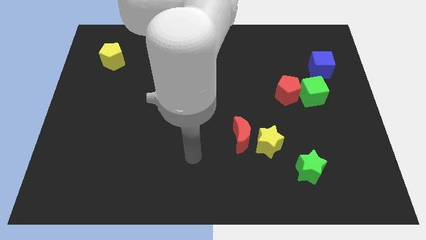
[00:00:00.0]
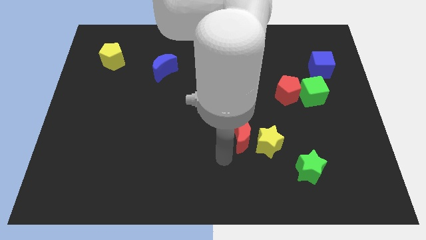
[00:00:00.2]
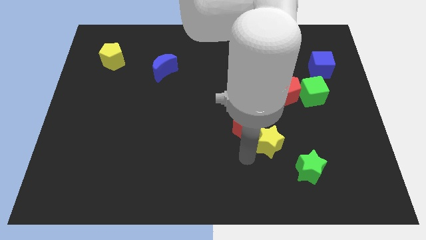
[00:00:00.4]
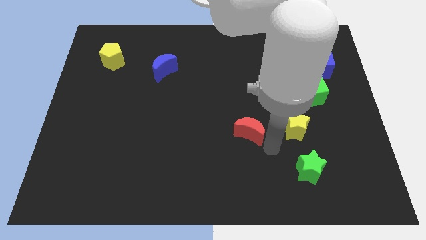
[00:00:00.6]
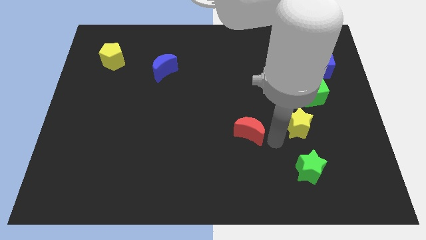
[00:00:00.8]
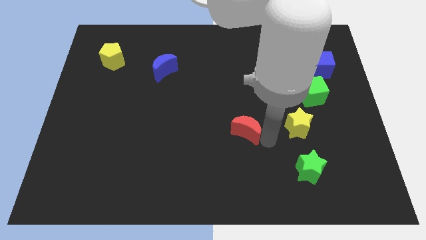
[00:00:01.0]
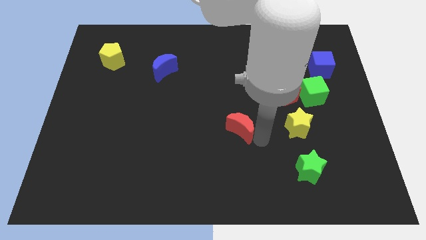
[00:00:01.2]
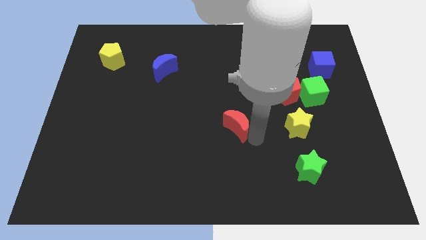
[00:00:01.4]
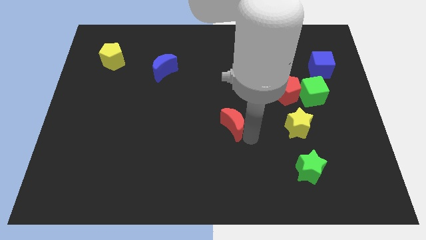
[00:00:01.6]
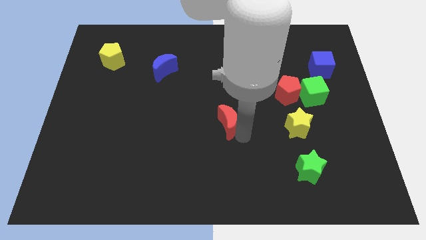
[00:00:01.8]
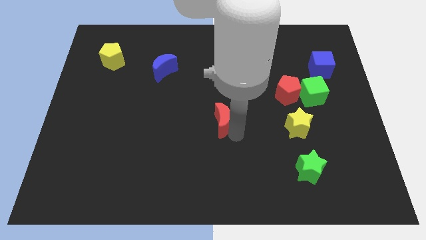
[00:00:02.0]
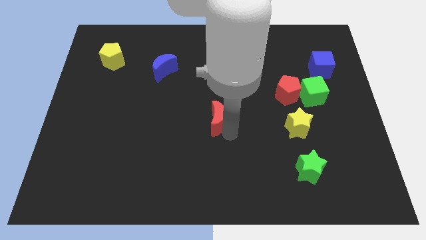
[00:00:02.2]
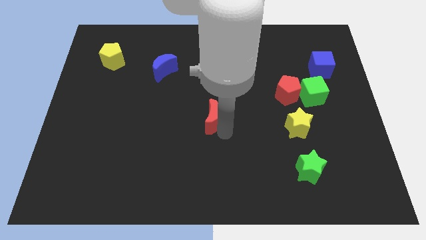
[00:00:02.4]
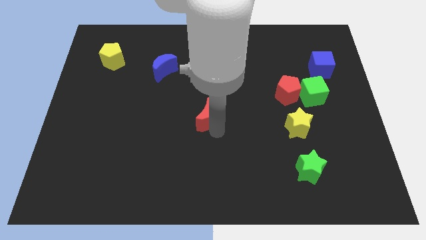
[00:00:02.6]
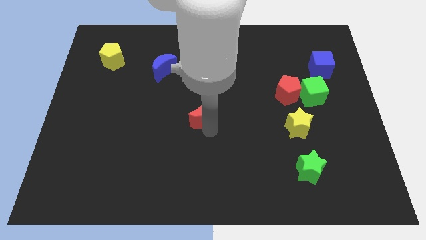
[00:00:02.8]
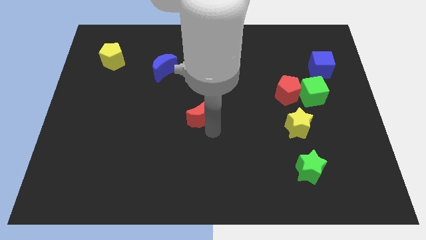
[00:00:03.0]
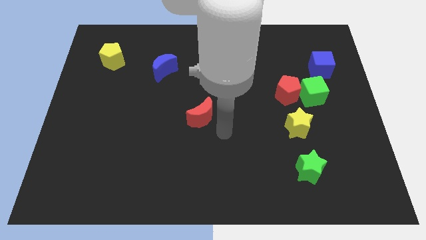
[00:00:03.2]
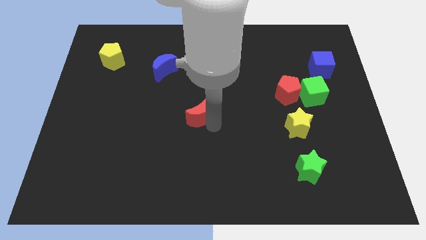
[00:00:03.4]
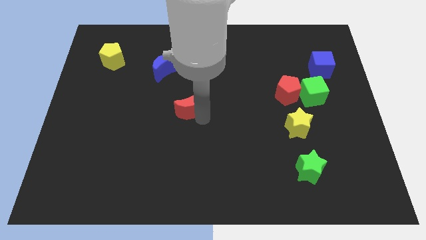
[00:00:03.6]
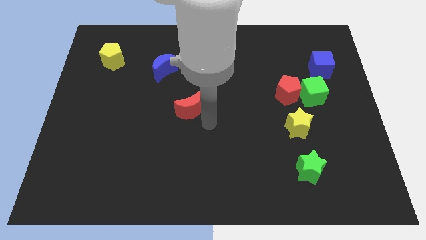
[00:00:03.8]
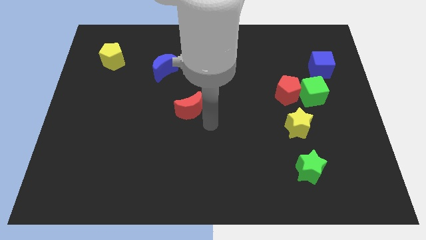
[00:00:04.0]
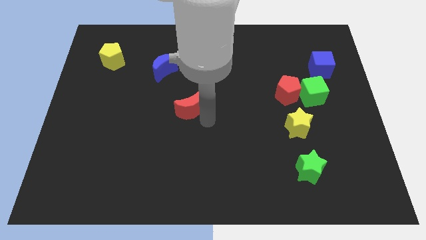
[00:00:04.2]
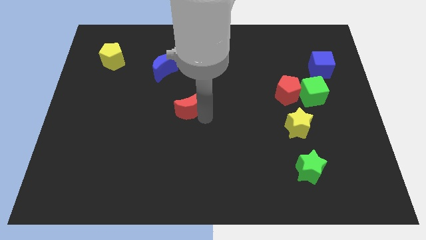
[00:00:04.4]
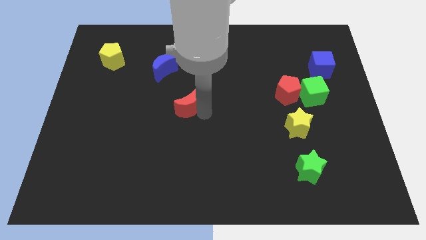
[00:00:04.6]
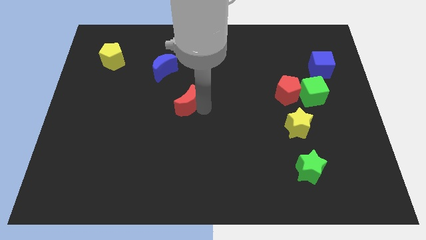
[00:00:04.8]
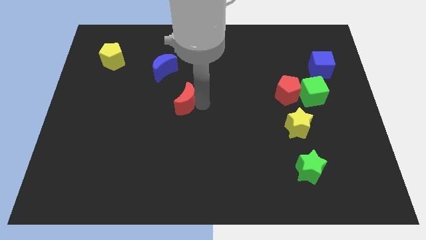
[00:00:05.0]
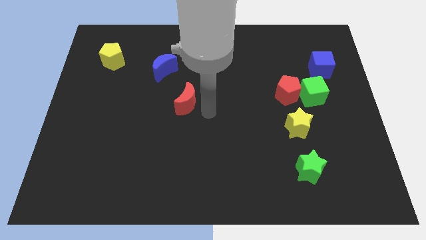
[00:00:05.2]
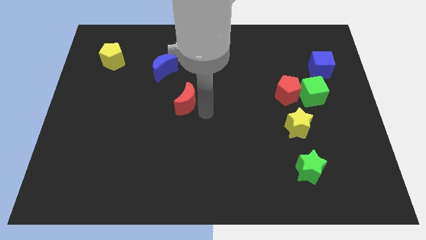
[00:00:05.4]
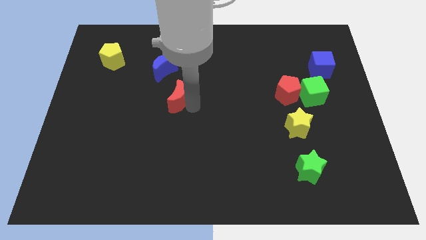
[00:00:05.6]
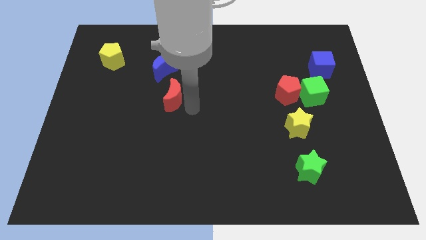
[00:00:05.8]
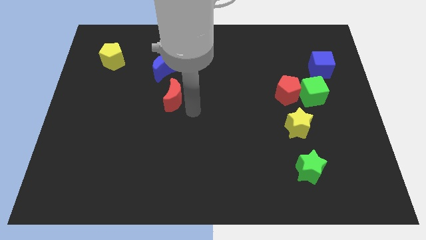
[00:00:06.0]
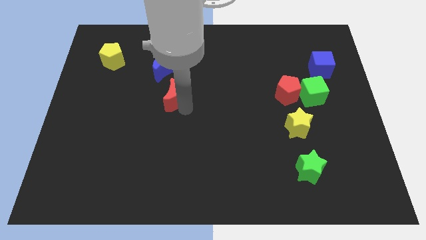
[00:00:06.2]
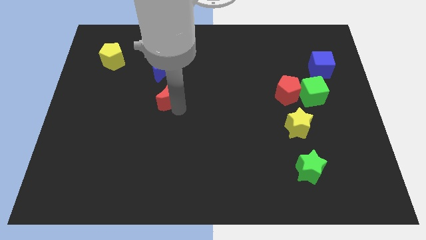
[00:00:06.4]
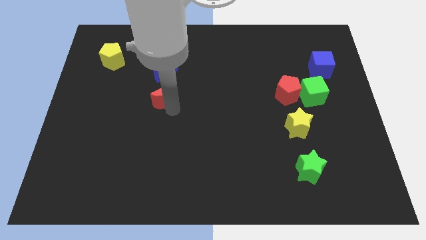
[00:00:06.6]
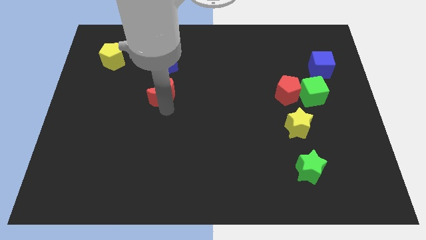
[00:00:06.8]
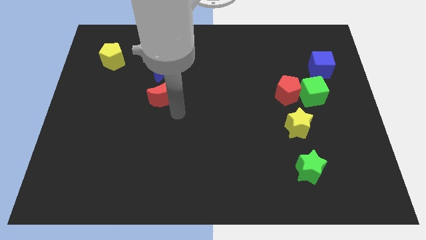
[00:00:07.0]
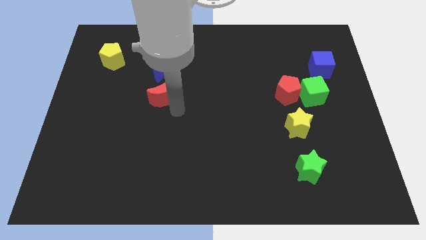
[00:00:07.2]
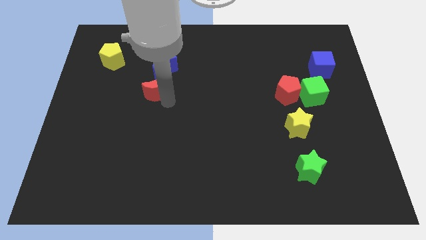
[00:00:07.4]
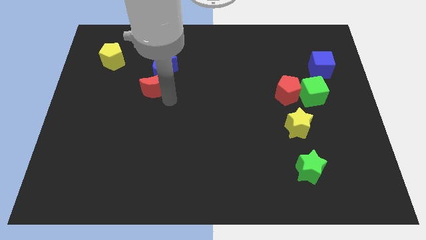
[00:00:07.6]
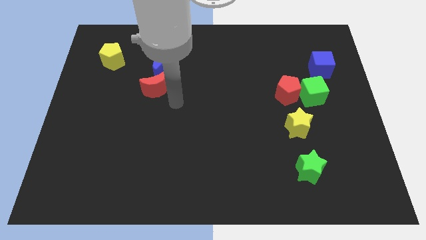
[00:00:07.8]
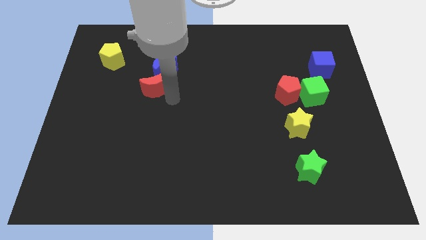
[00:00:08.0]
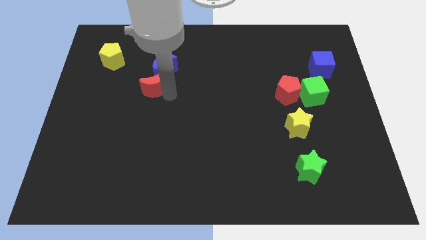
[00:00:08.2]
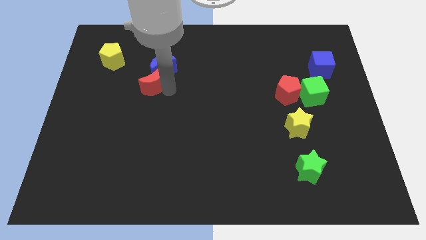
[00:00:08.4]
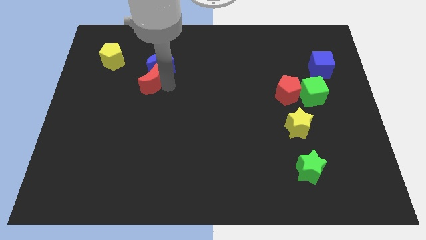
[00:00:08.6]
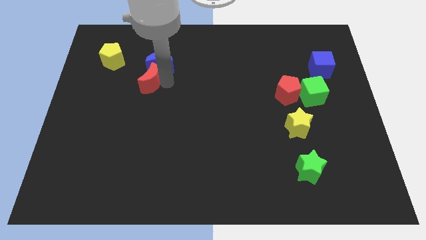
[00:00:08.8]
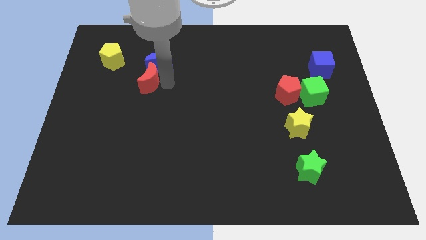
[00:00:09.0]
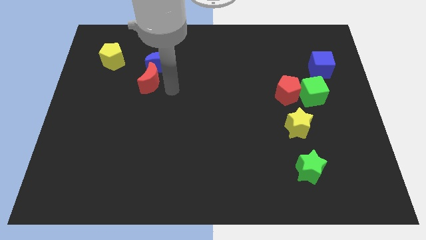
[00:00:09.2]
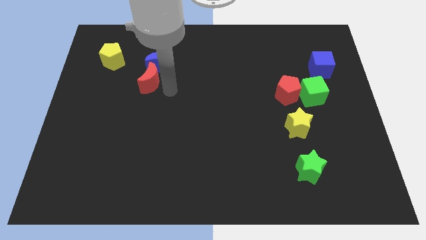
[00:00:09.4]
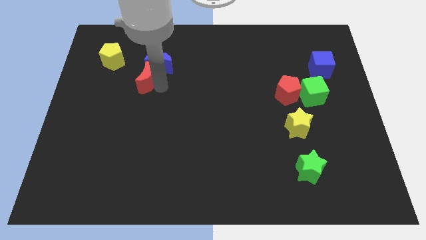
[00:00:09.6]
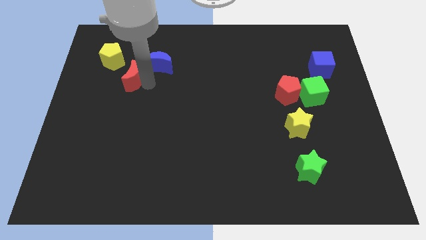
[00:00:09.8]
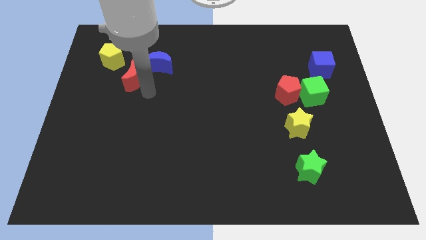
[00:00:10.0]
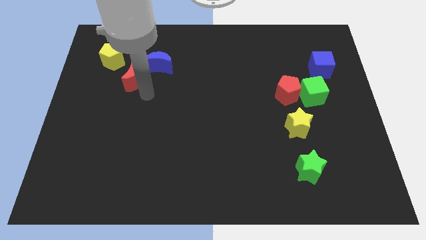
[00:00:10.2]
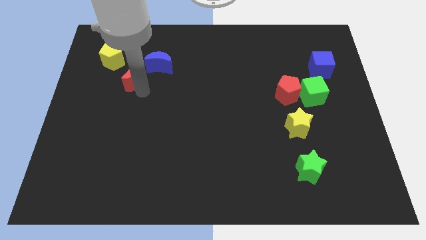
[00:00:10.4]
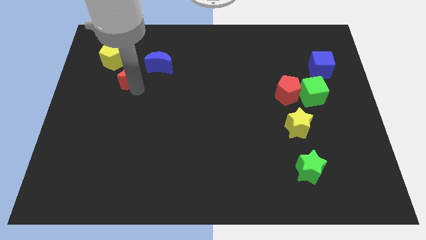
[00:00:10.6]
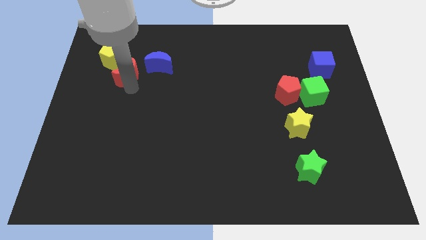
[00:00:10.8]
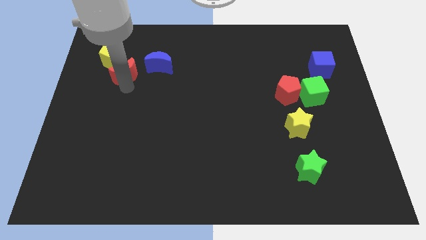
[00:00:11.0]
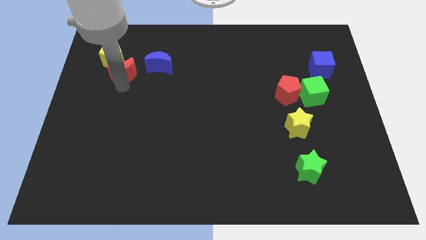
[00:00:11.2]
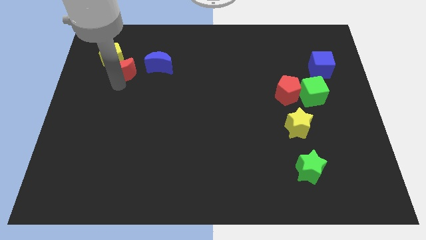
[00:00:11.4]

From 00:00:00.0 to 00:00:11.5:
put the red moon next to the yellow pentagon

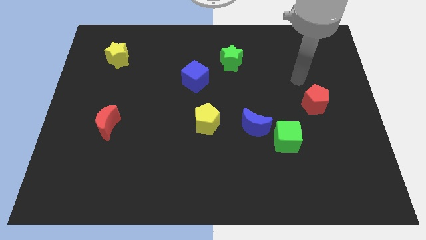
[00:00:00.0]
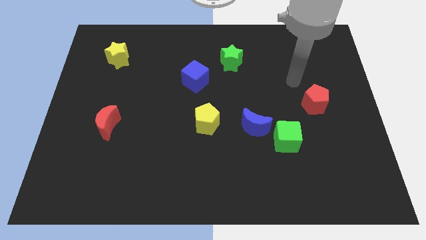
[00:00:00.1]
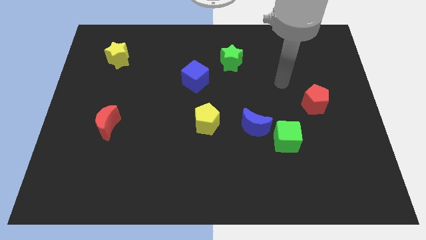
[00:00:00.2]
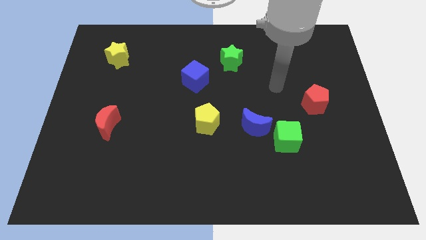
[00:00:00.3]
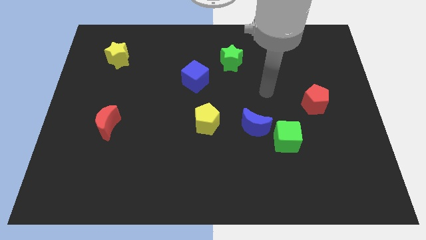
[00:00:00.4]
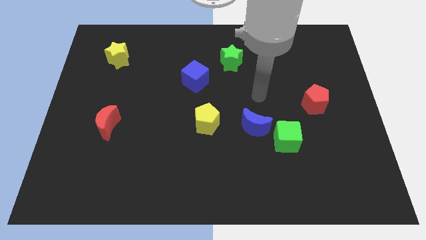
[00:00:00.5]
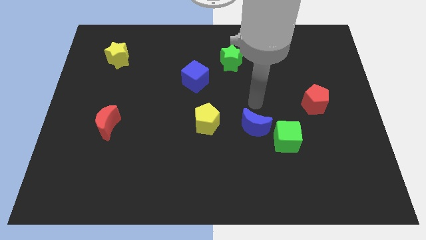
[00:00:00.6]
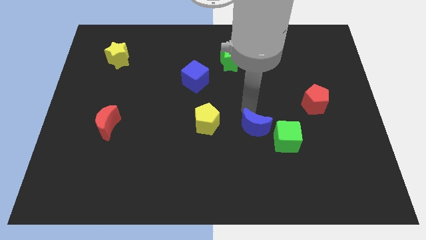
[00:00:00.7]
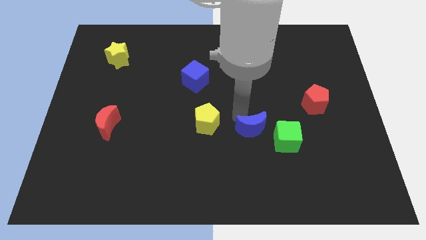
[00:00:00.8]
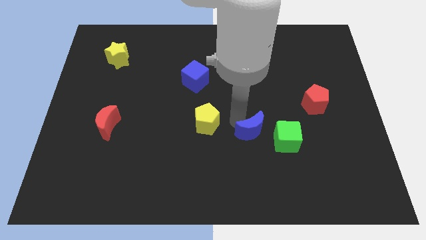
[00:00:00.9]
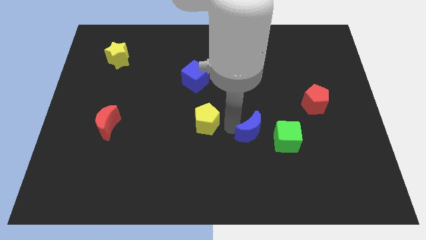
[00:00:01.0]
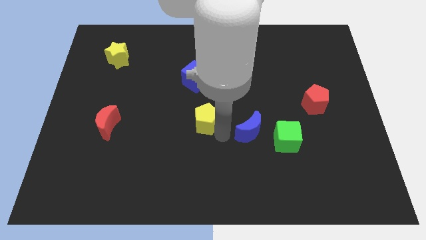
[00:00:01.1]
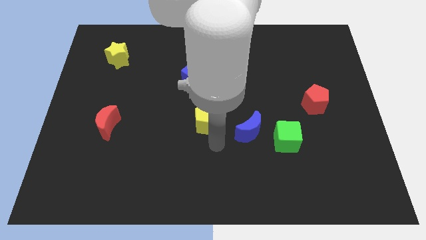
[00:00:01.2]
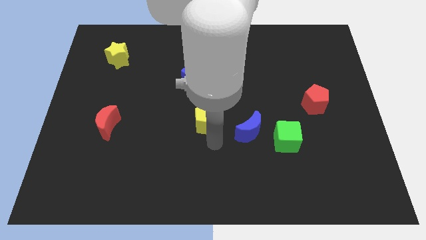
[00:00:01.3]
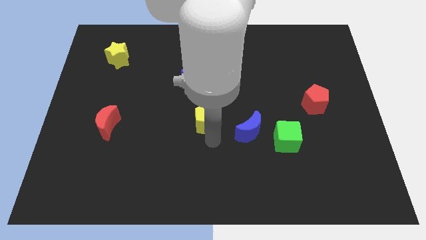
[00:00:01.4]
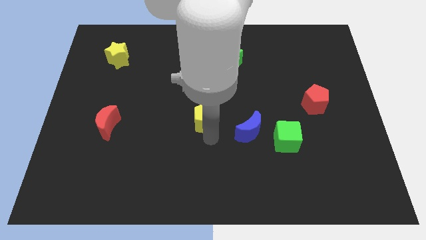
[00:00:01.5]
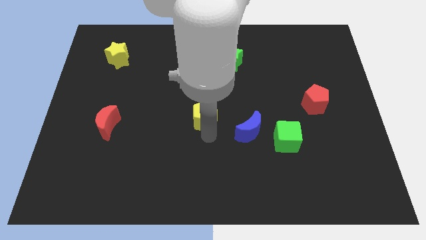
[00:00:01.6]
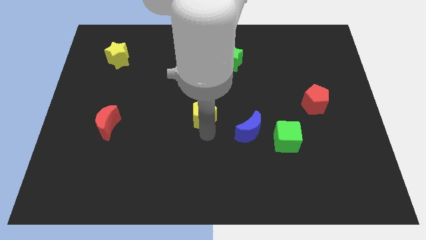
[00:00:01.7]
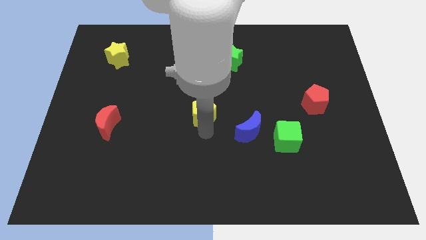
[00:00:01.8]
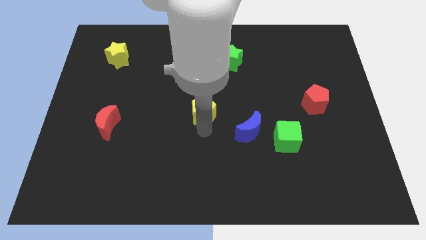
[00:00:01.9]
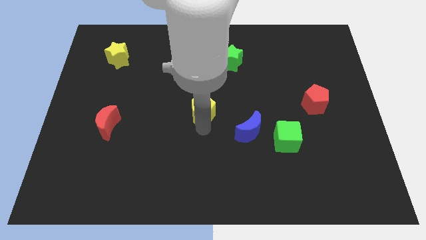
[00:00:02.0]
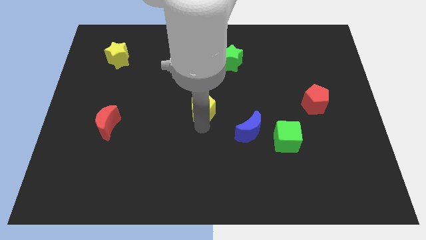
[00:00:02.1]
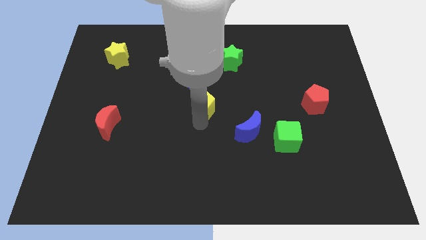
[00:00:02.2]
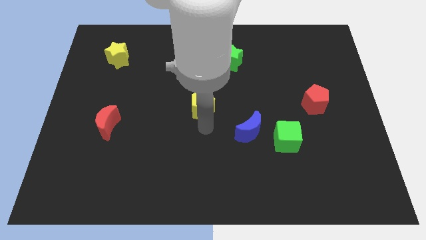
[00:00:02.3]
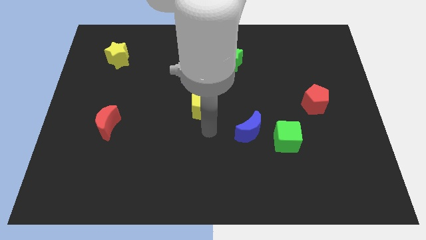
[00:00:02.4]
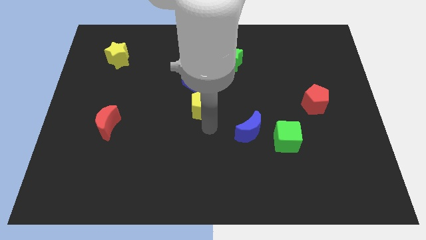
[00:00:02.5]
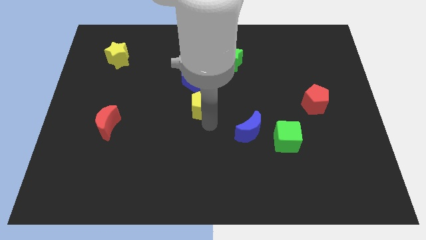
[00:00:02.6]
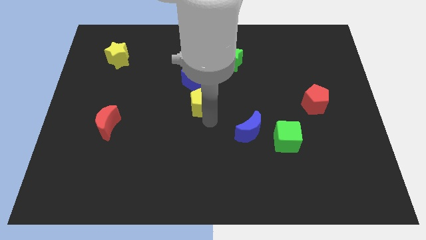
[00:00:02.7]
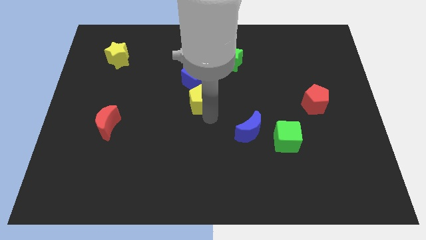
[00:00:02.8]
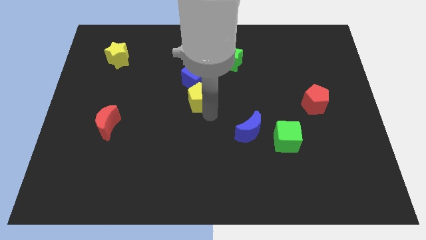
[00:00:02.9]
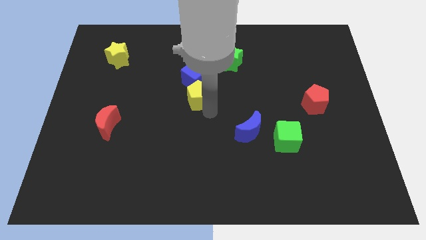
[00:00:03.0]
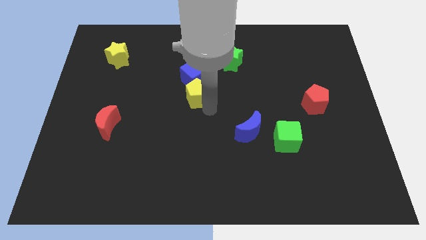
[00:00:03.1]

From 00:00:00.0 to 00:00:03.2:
slide the yellow pentagon to the blue cube
